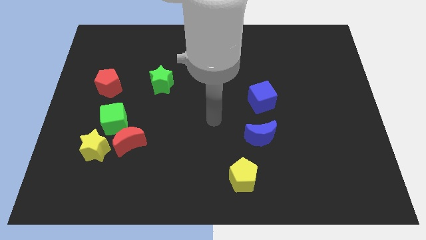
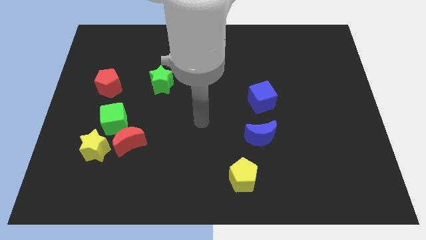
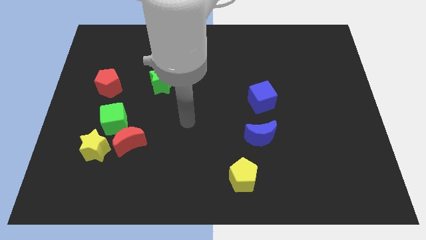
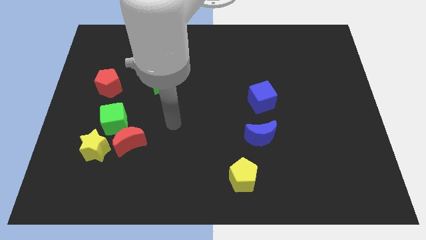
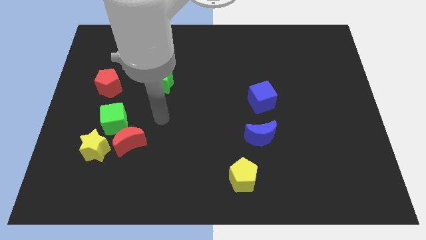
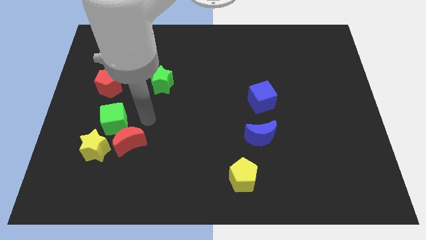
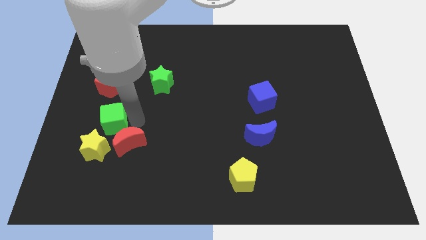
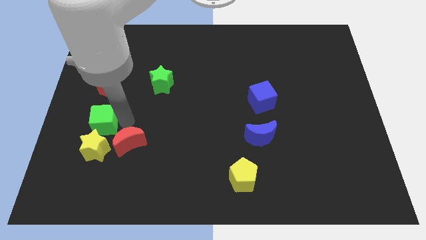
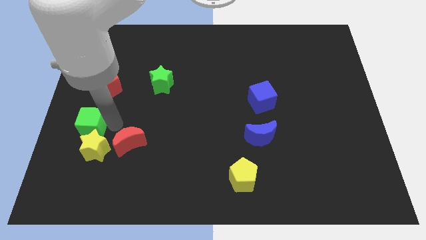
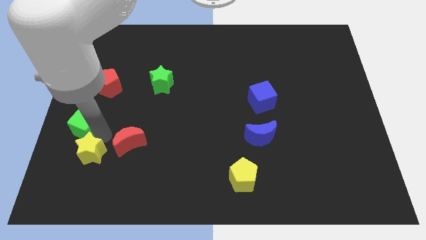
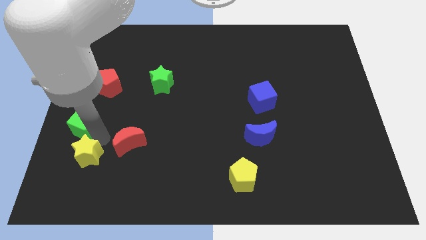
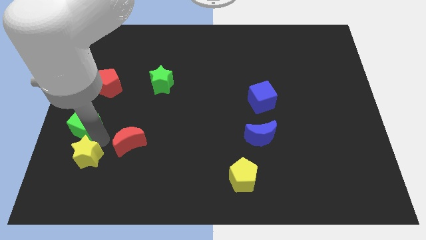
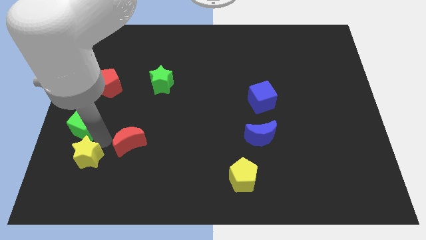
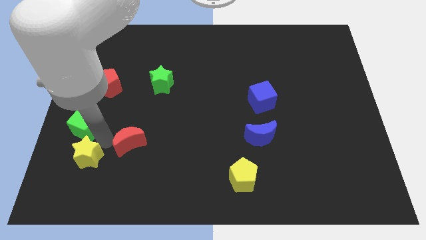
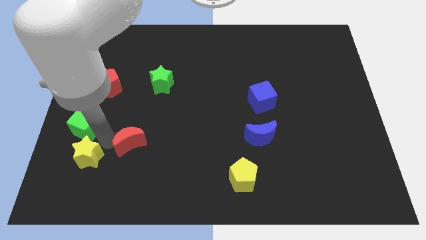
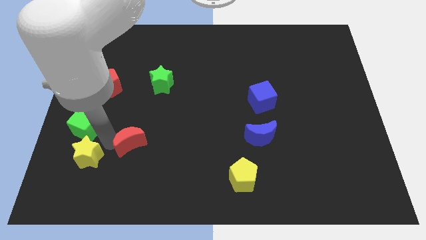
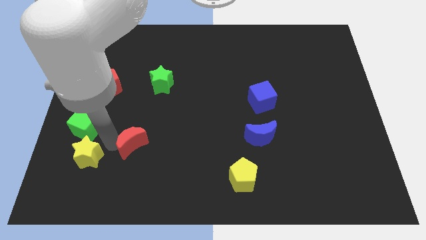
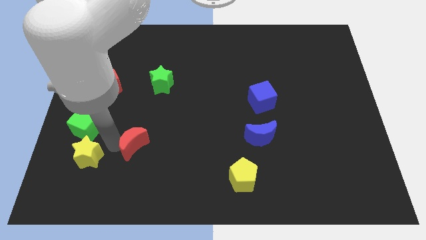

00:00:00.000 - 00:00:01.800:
separate the red moon from the green cube and yellow star

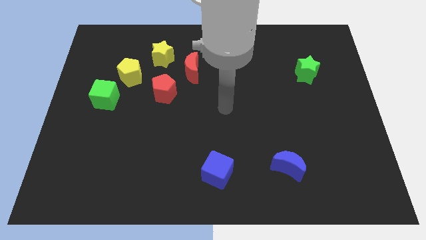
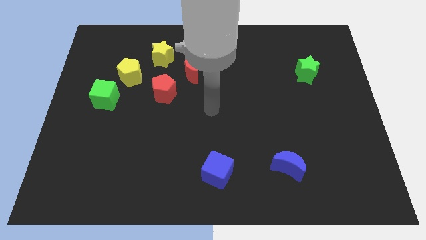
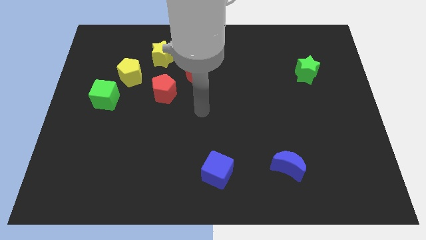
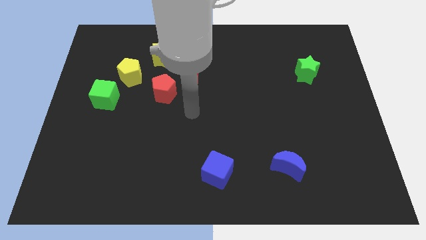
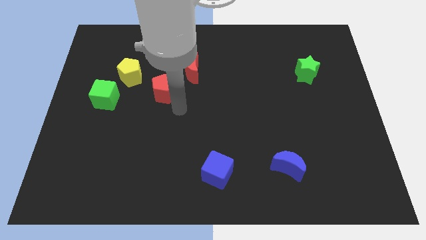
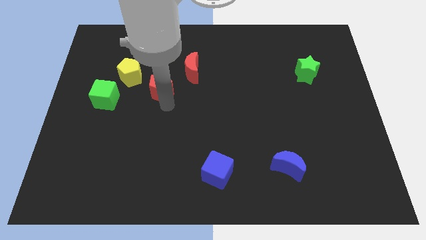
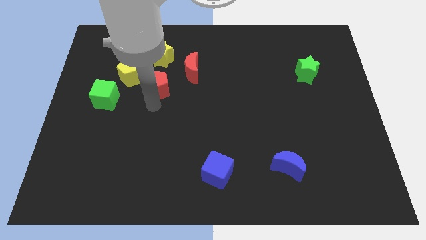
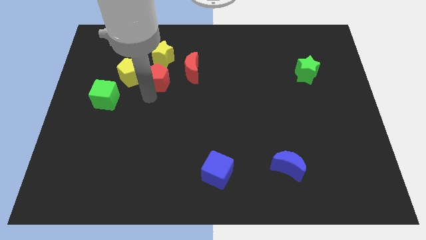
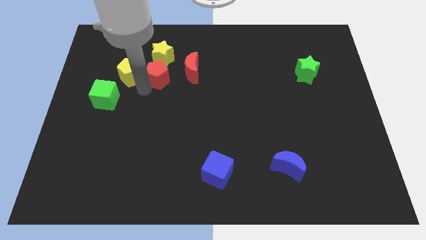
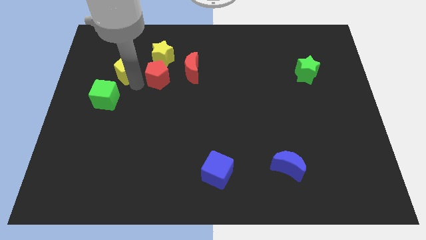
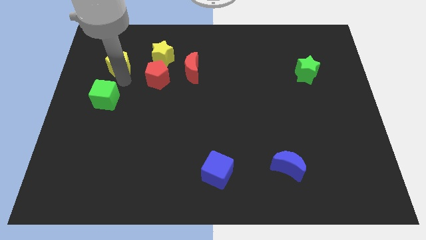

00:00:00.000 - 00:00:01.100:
separate the green cube from the yellow pentagon

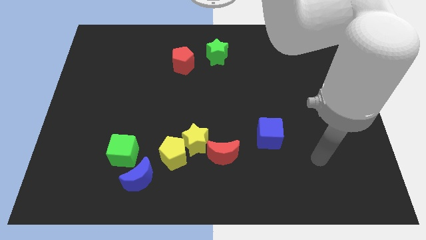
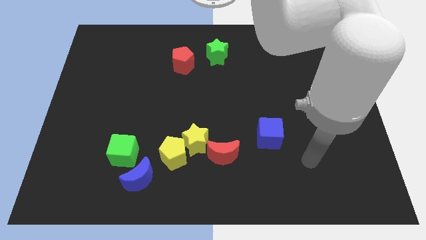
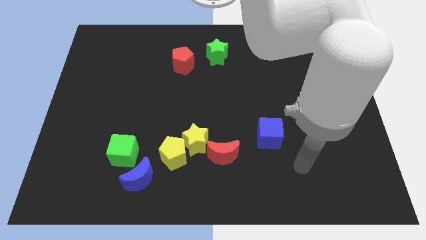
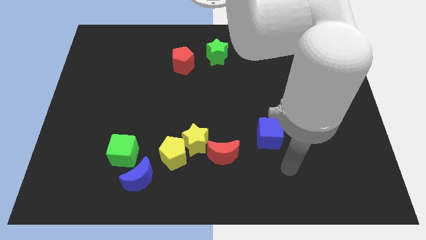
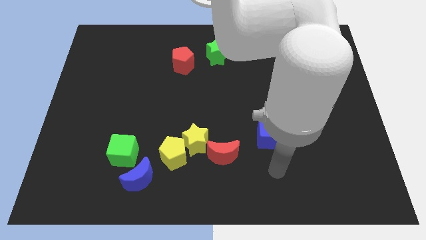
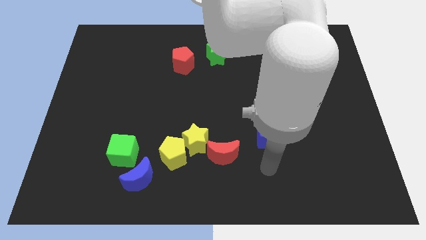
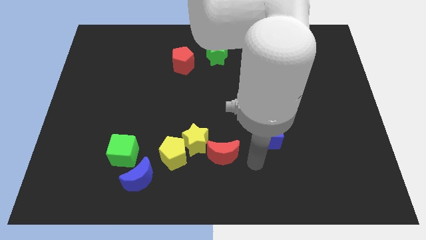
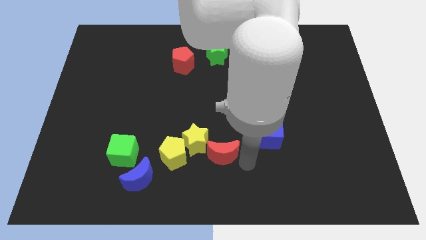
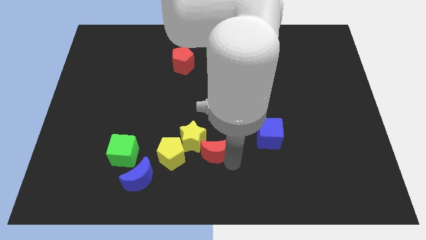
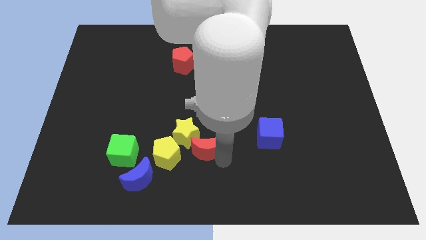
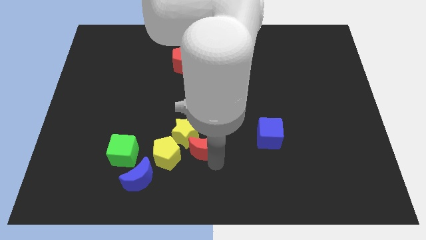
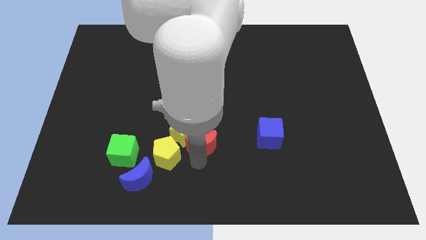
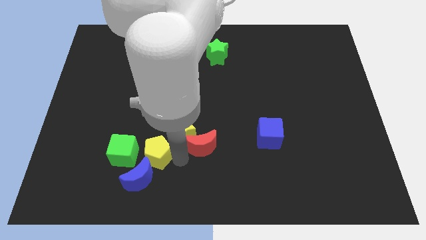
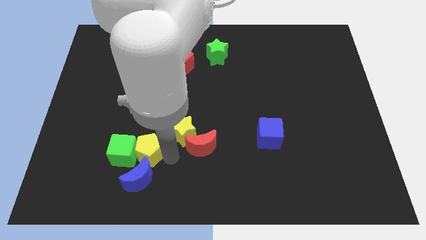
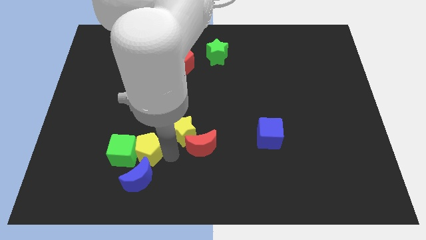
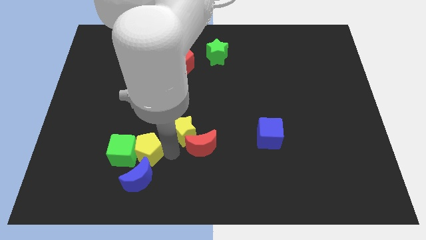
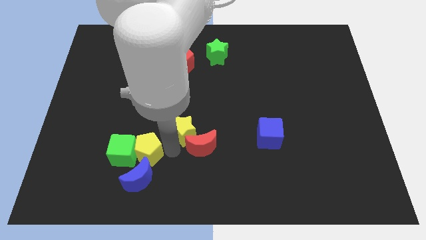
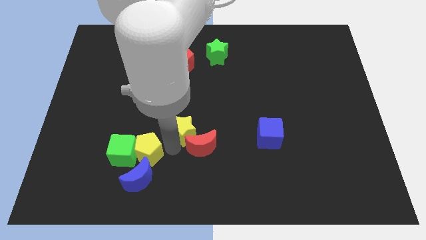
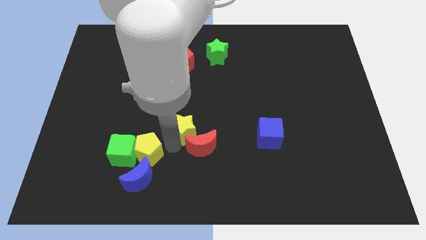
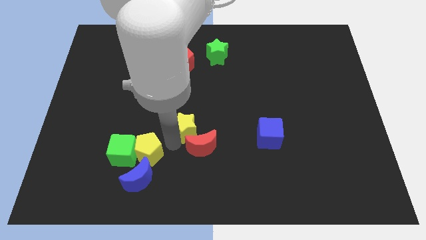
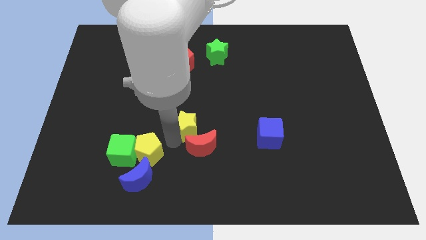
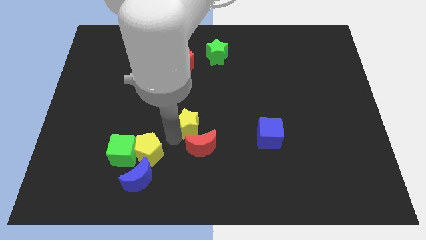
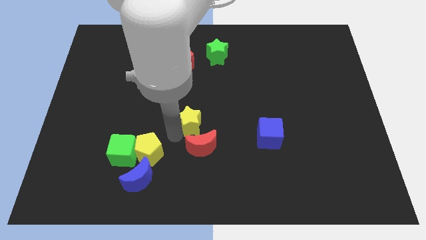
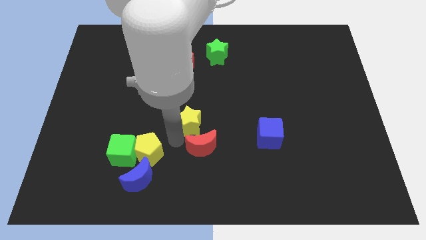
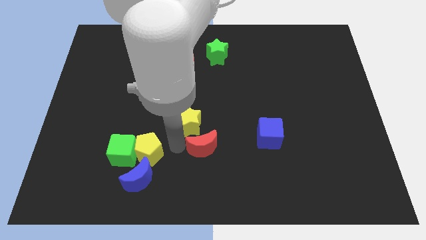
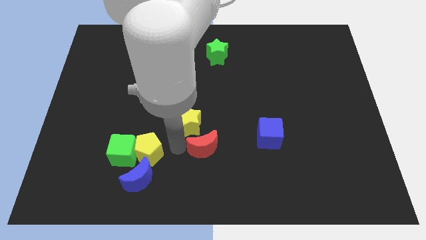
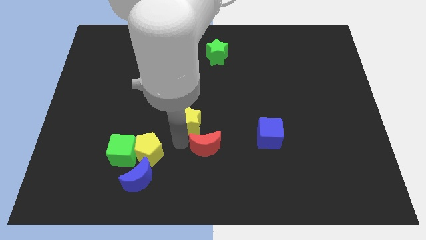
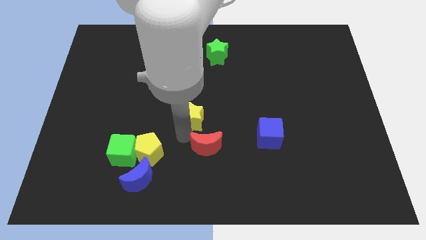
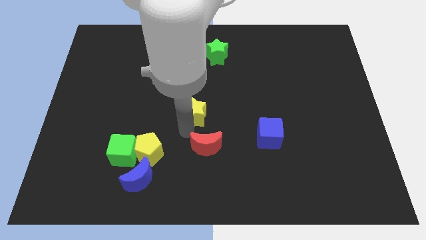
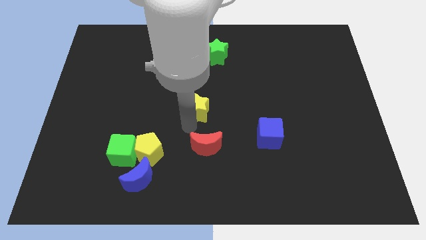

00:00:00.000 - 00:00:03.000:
pull the yellow star apart from the yellow pentagon and red moon

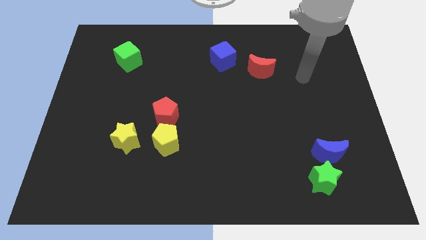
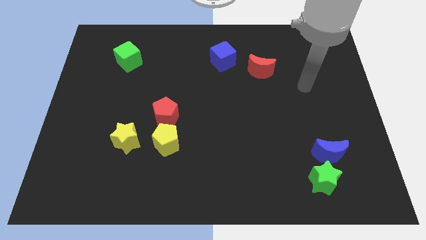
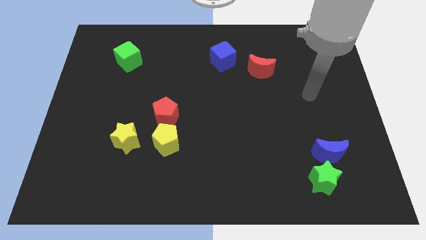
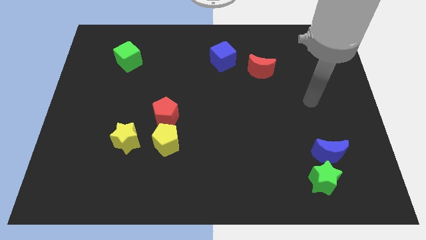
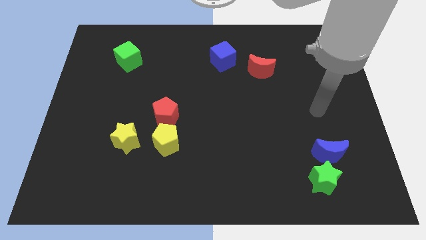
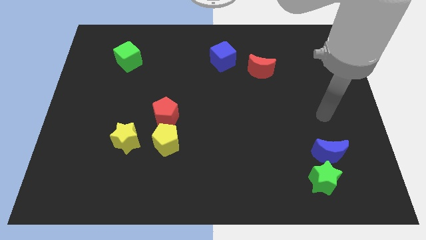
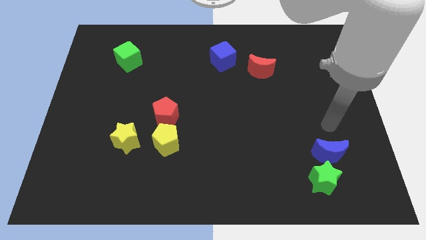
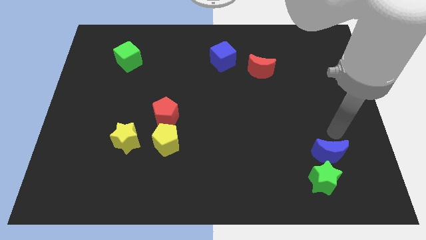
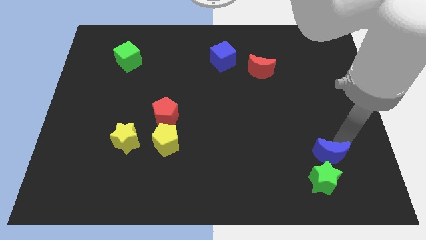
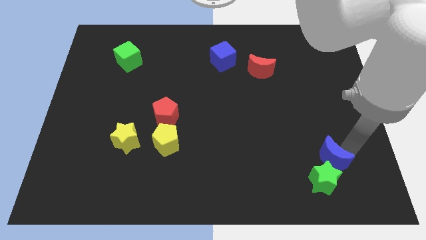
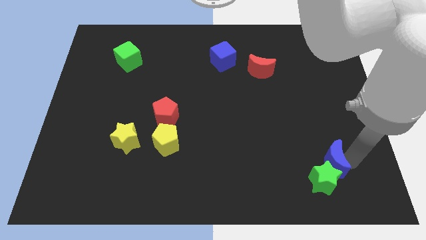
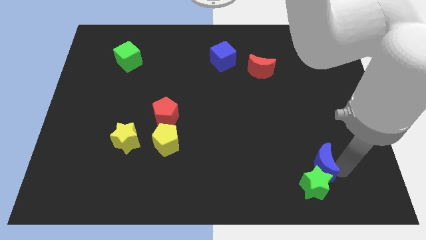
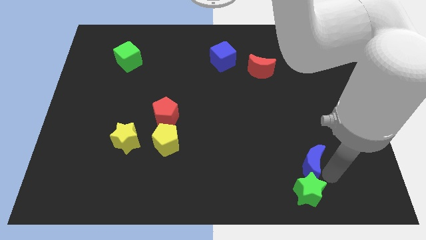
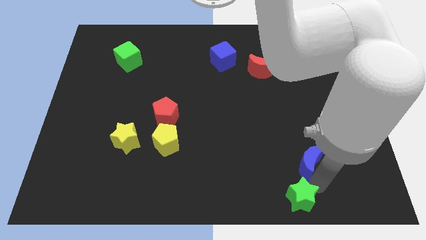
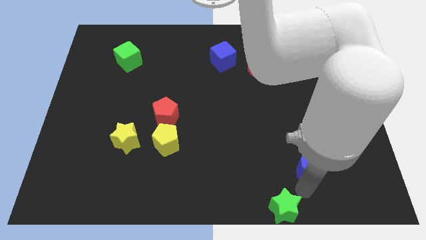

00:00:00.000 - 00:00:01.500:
separate the blue moon from the green star

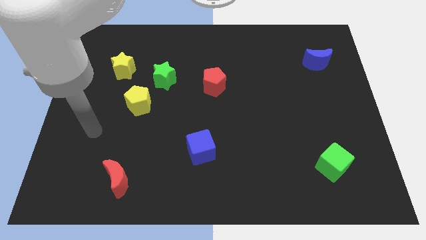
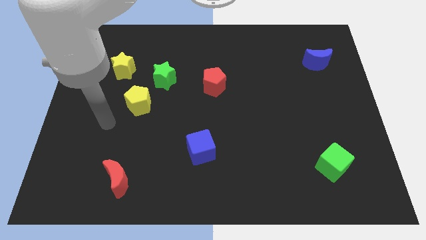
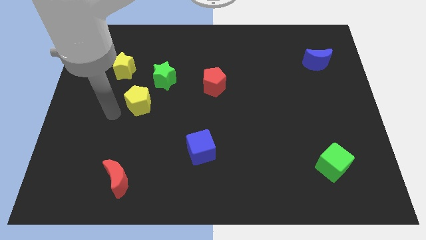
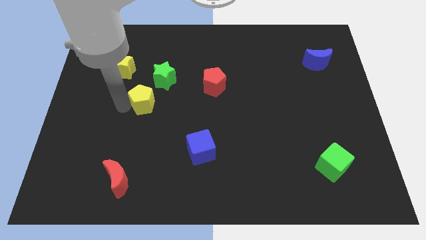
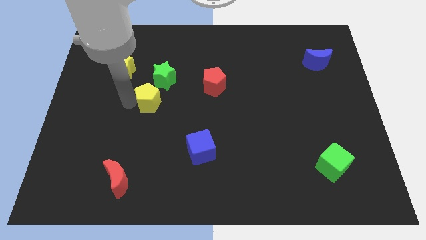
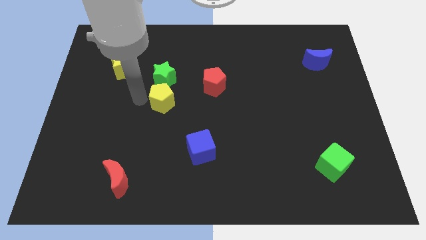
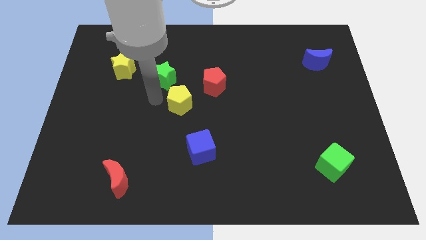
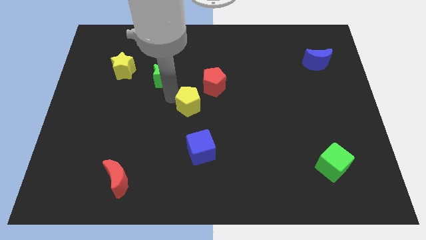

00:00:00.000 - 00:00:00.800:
move the green star away from the yellow pentagon

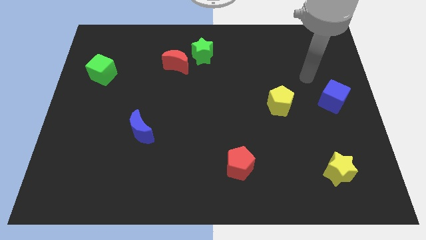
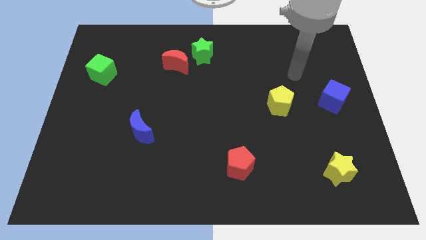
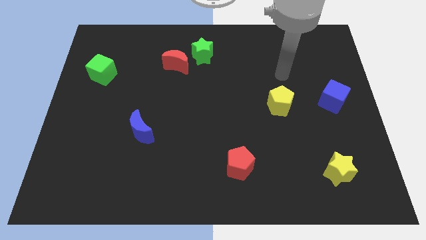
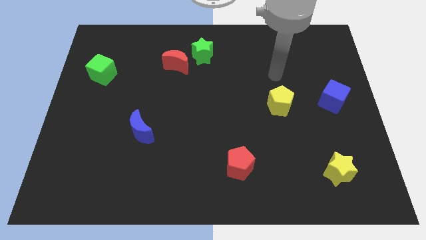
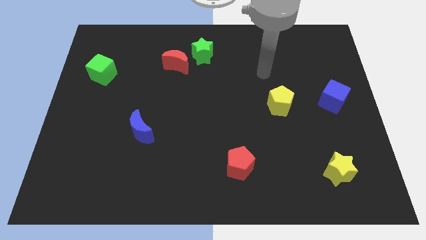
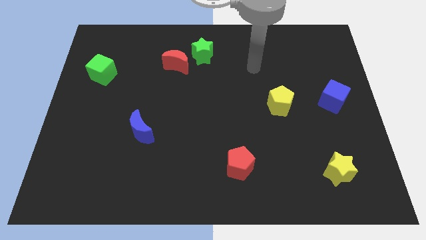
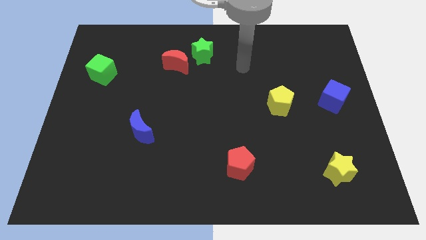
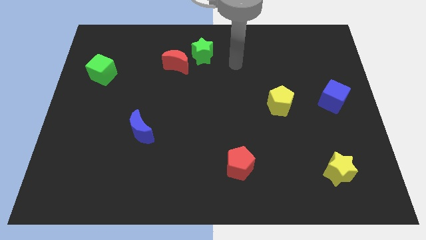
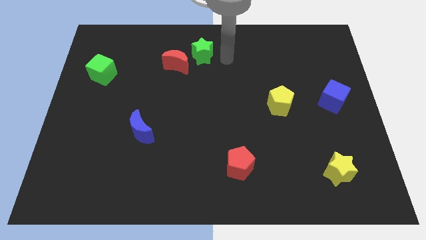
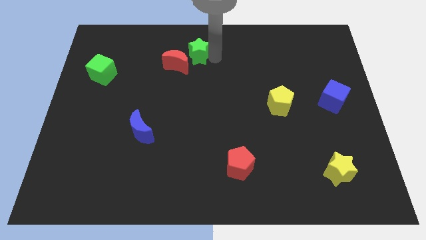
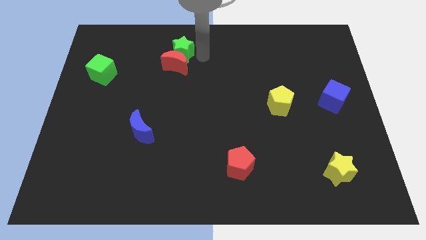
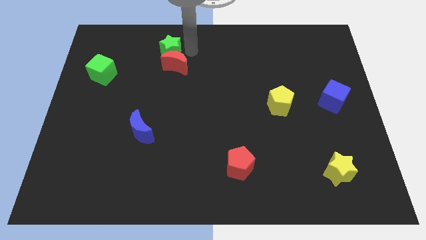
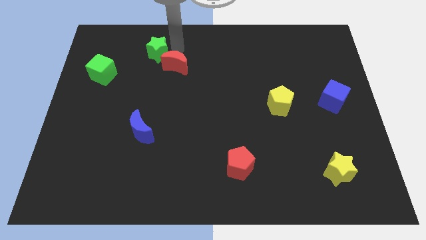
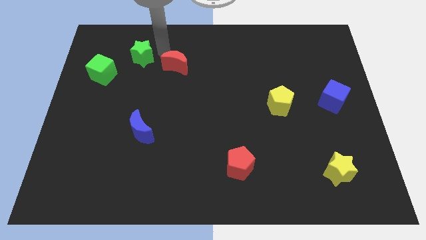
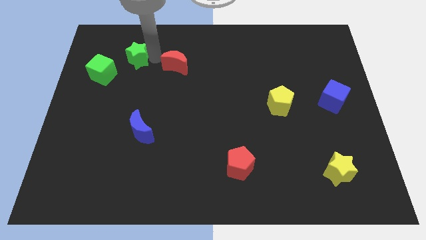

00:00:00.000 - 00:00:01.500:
pull the red moon apart from the green star
